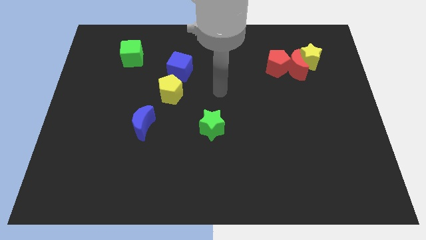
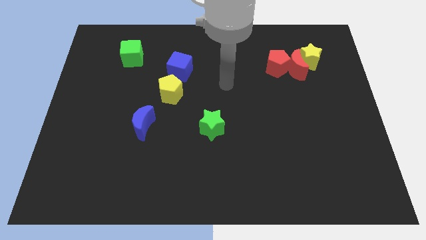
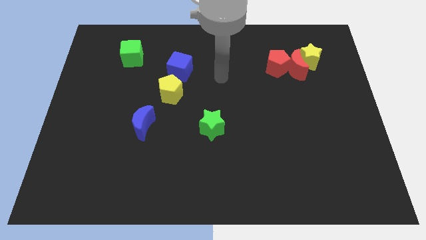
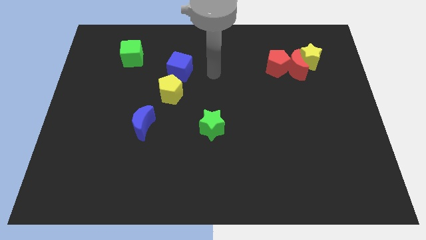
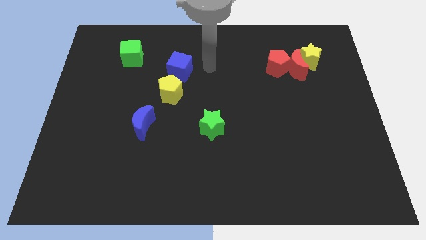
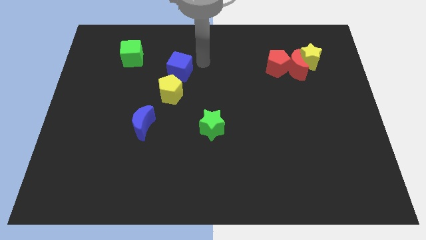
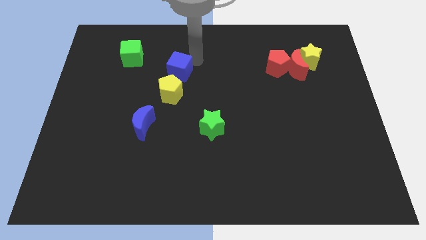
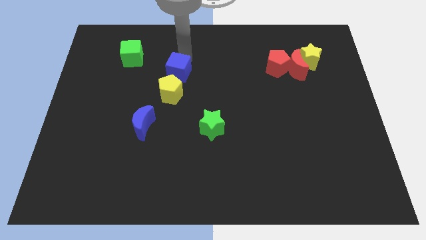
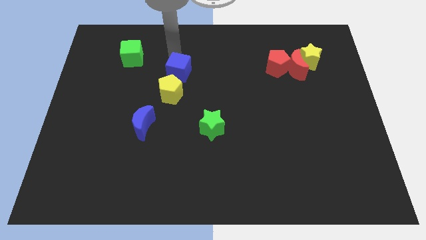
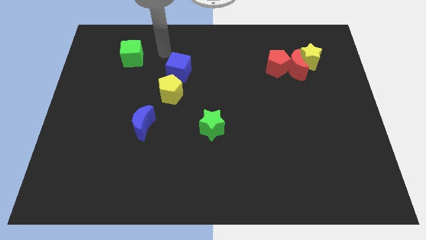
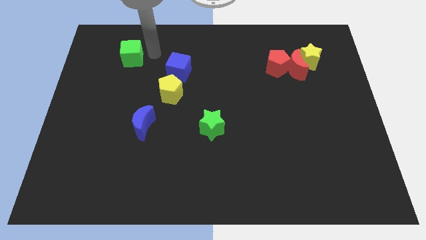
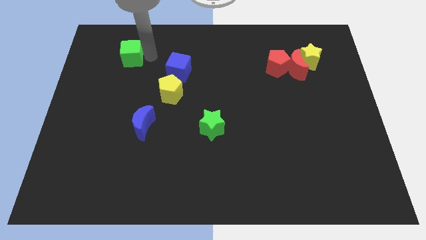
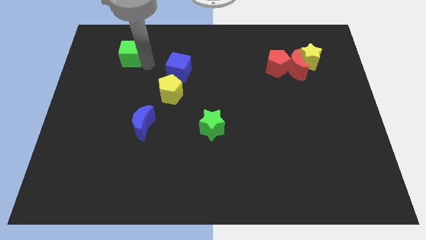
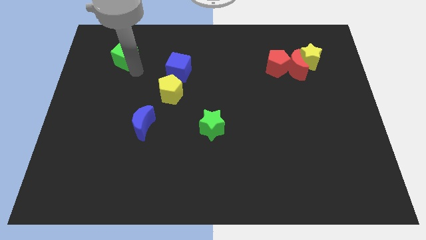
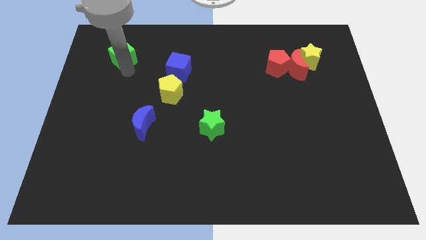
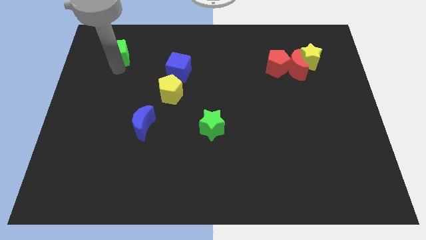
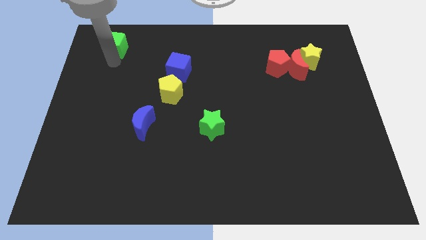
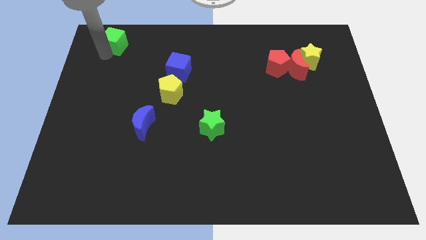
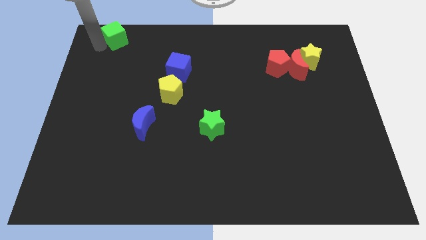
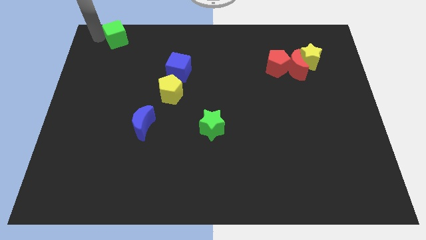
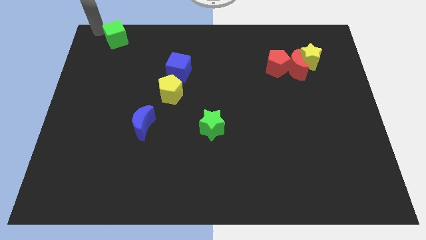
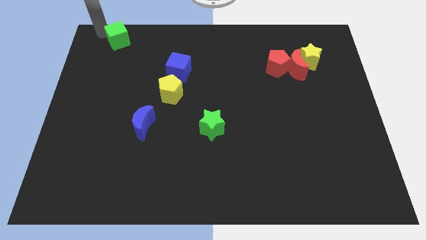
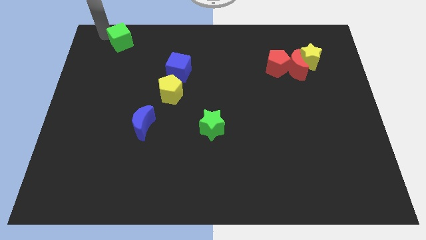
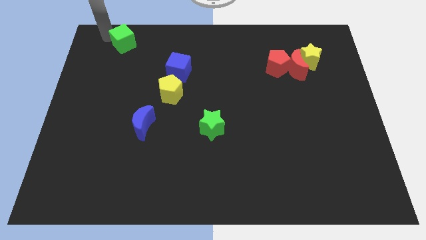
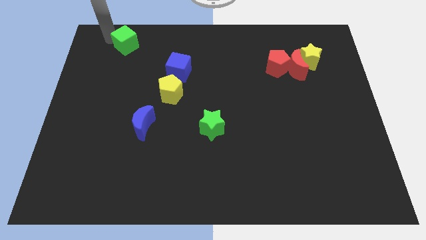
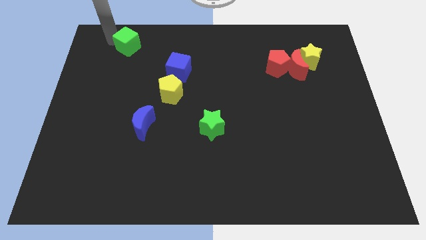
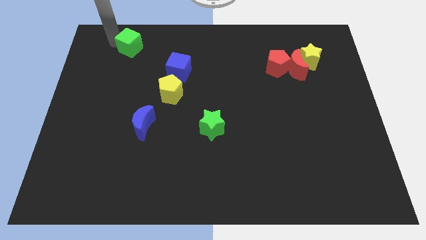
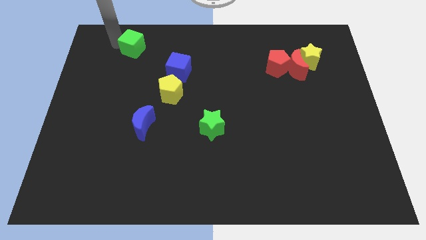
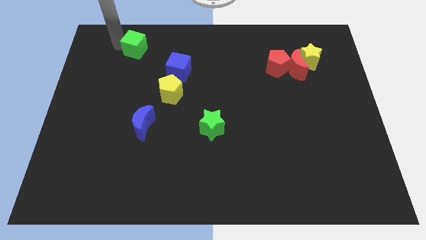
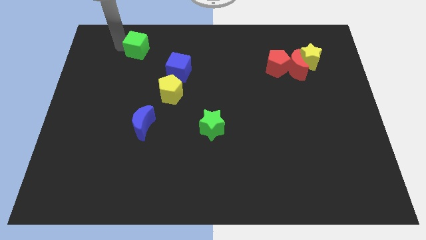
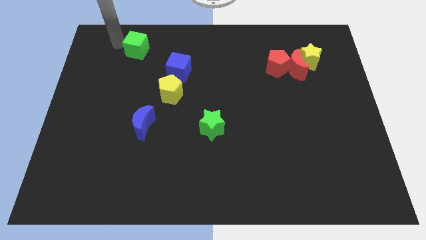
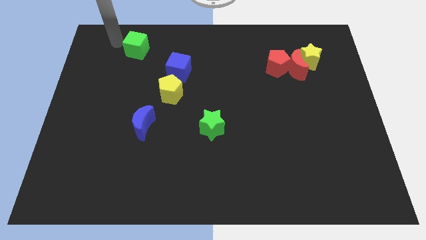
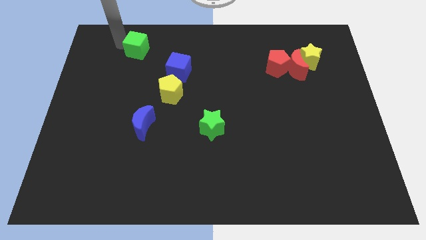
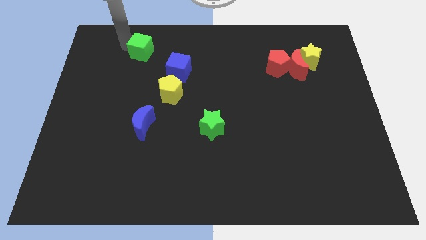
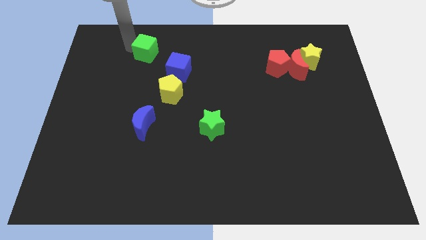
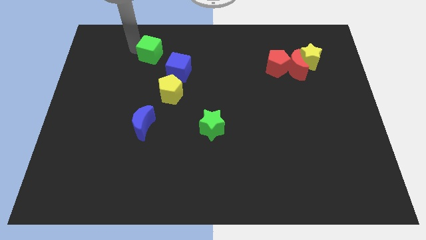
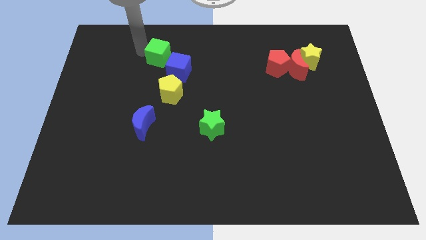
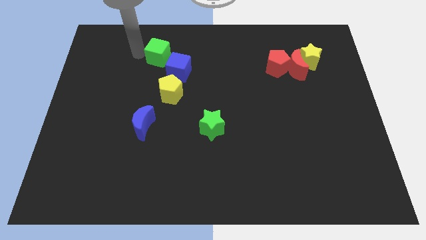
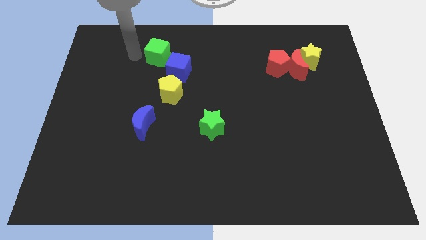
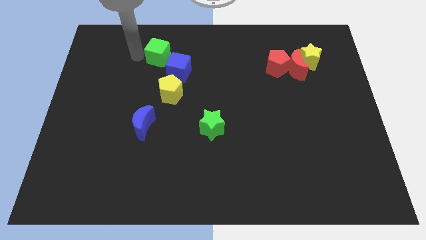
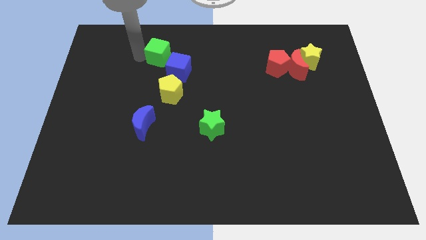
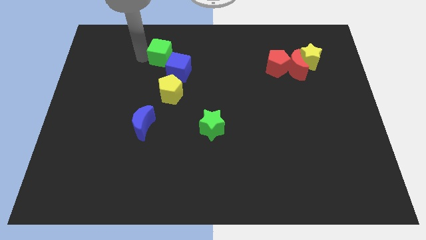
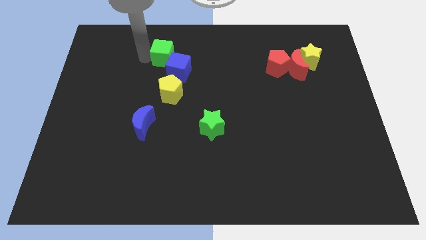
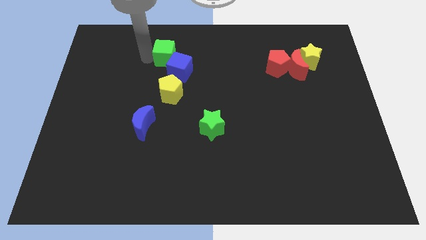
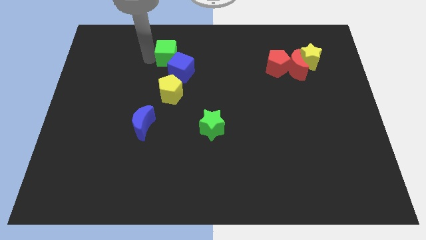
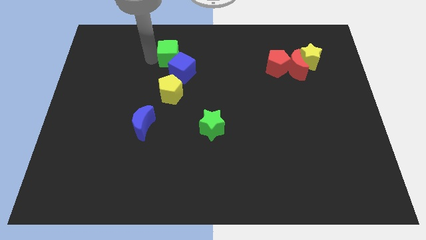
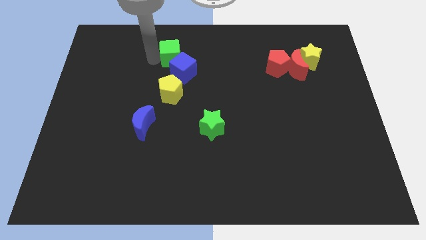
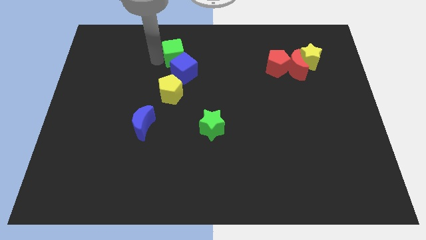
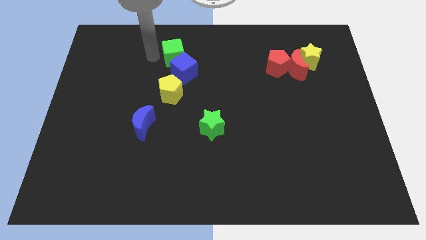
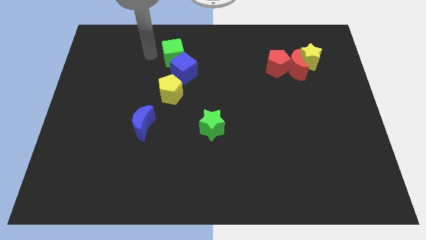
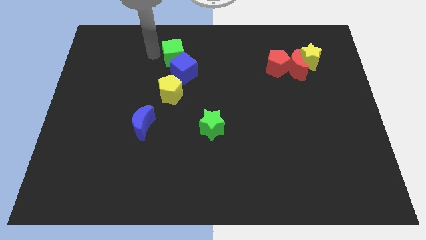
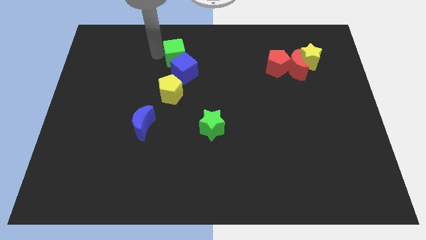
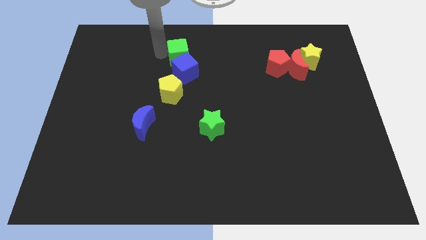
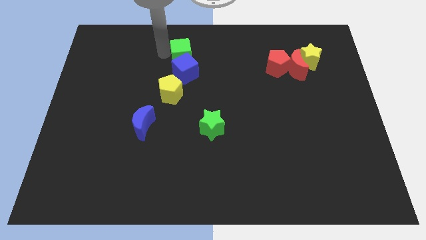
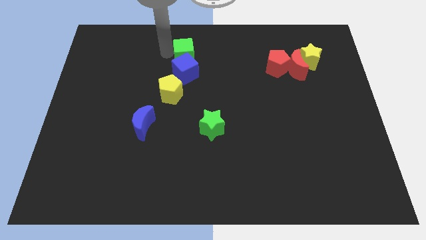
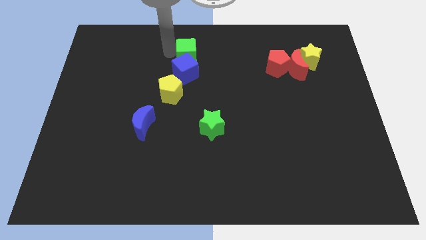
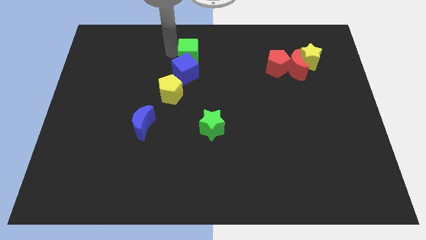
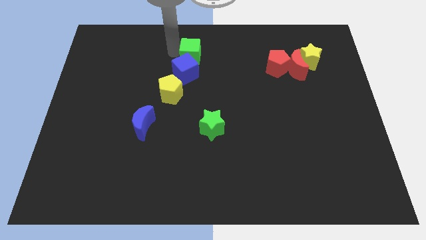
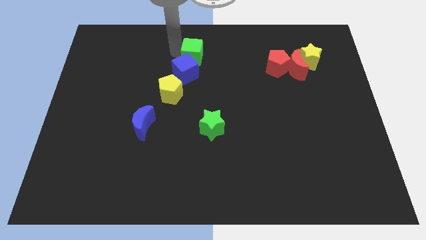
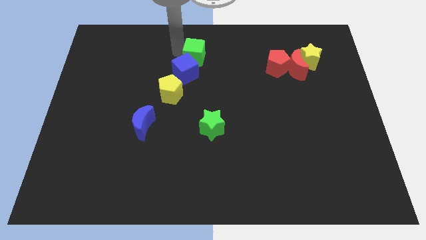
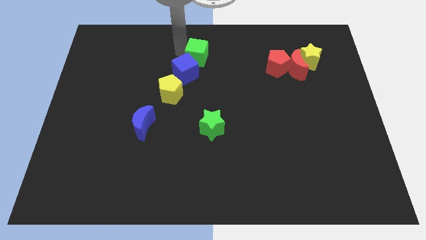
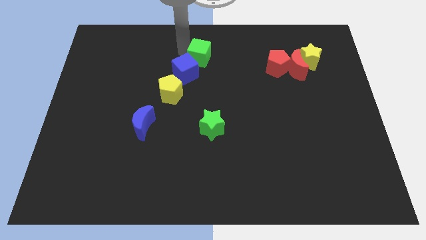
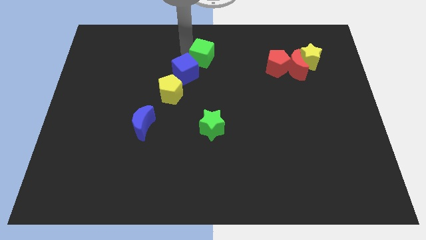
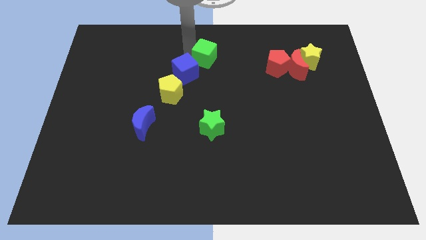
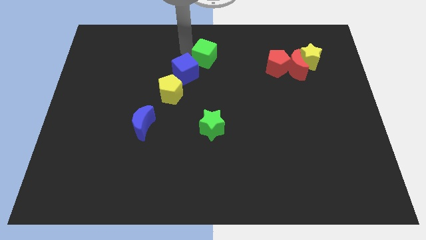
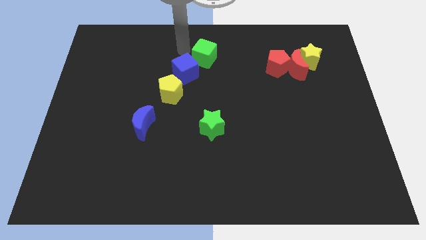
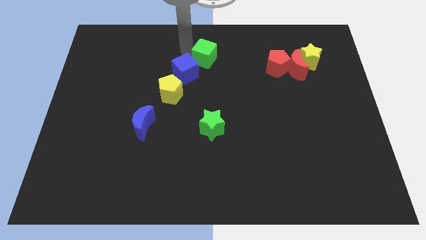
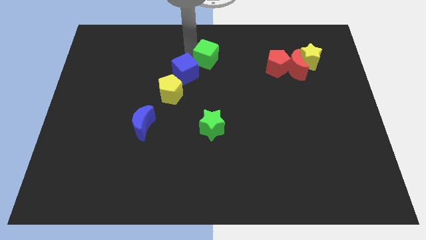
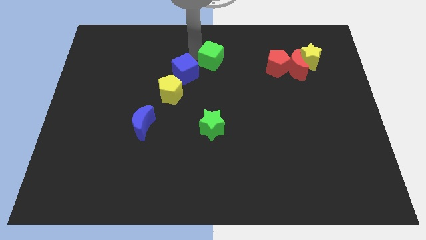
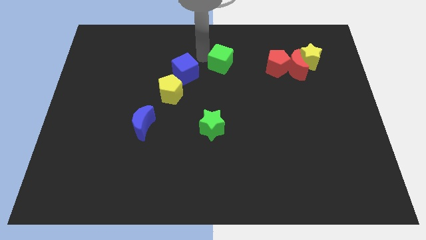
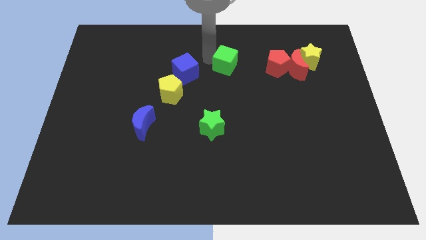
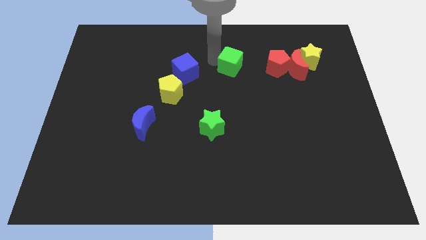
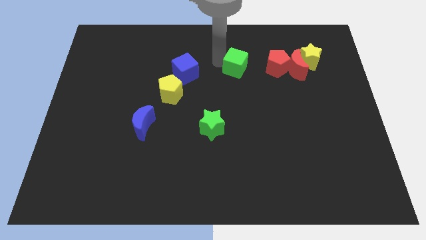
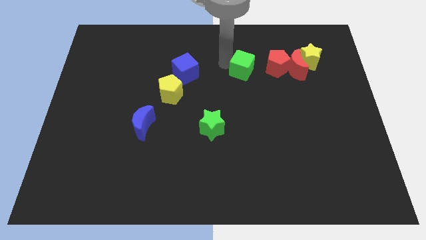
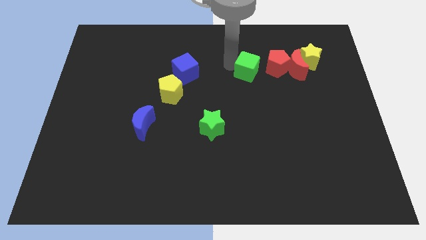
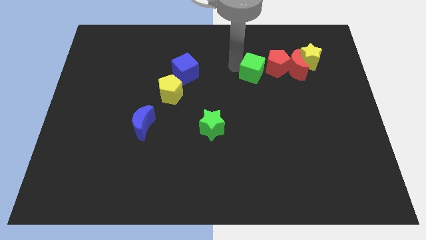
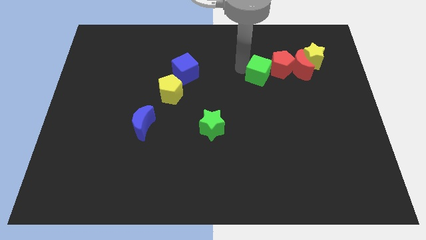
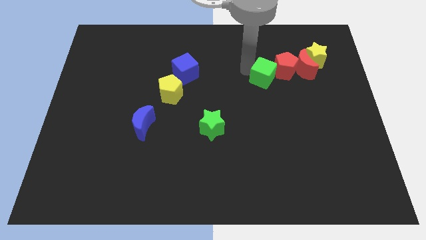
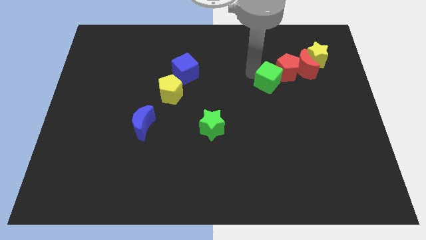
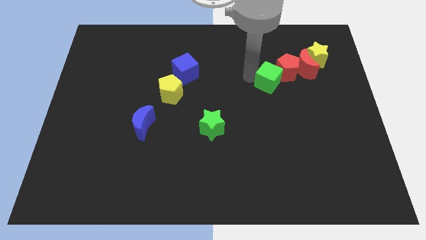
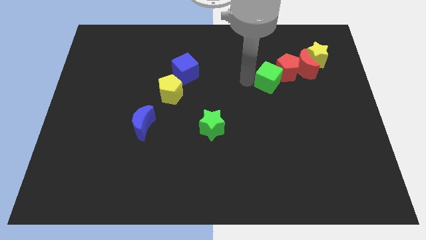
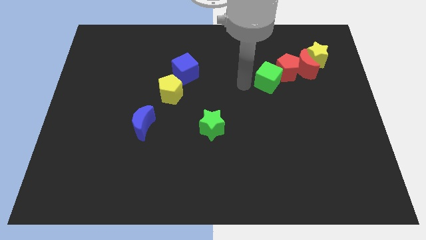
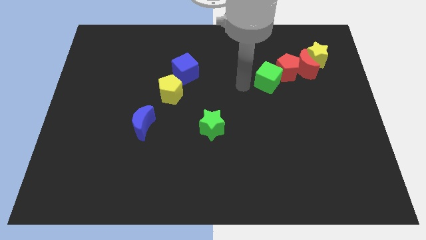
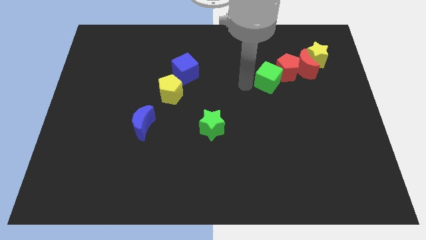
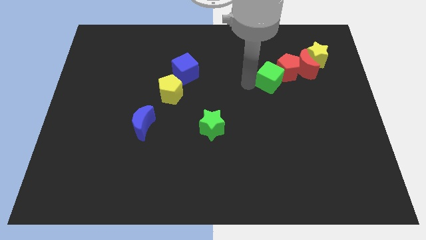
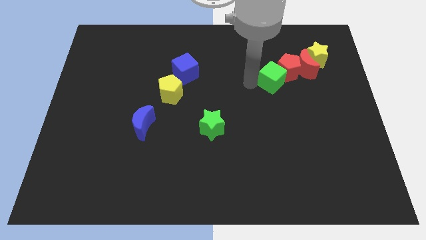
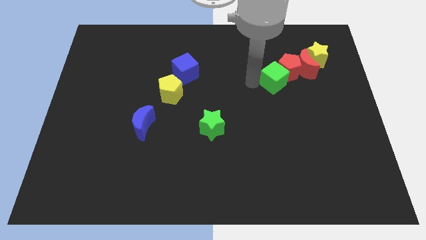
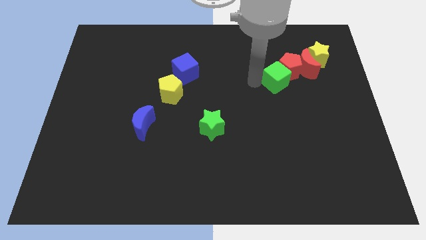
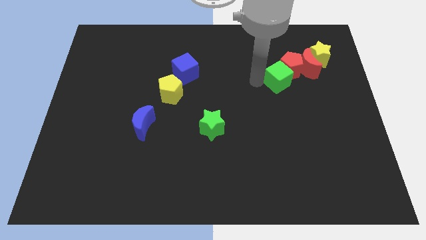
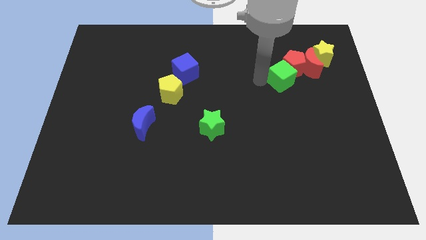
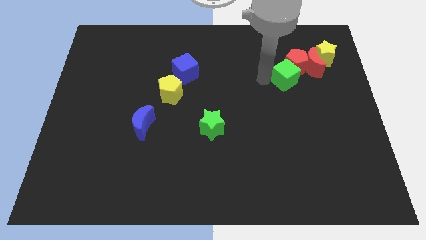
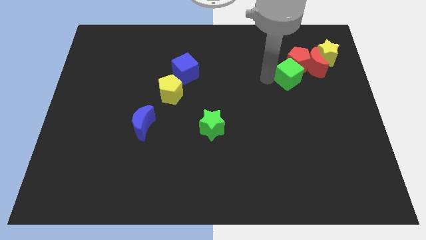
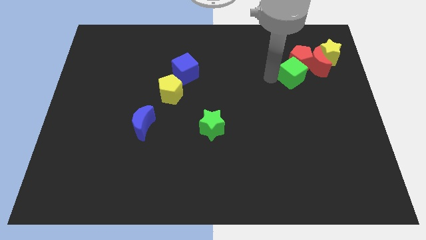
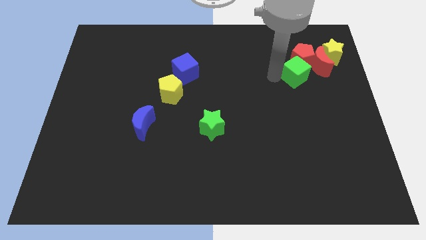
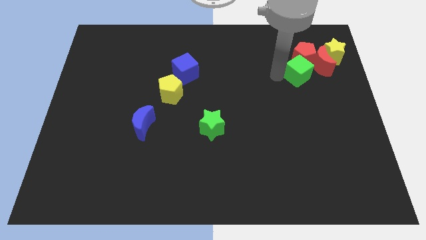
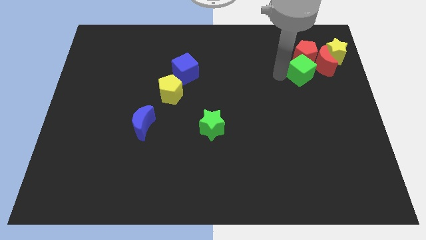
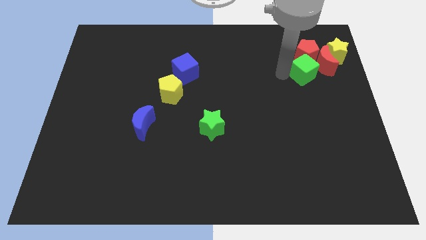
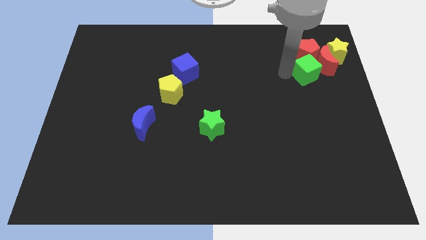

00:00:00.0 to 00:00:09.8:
push the green cube towards the red moon
